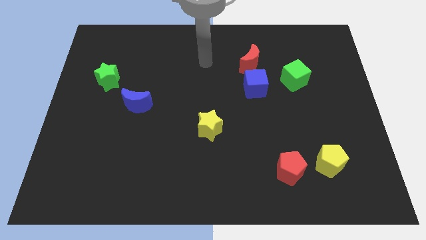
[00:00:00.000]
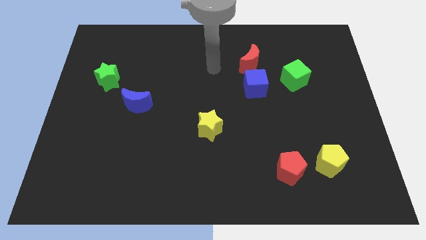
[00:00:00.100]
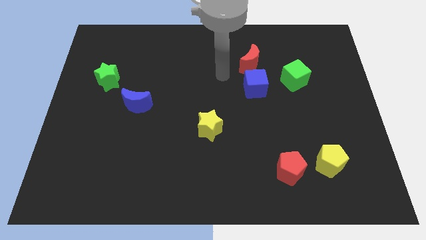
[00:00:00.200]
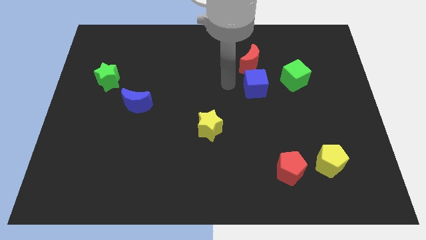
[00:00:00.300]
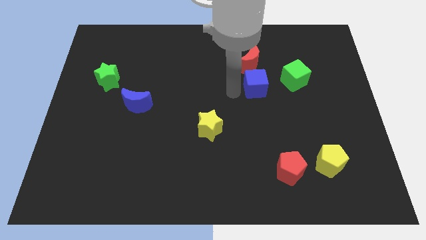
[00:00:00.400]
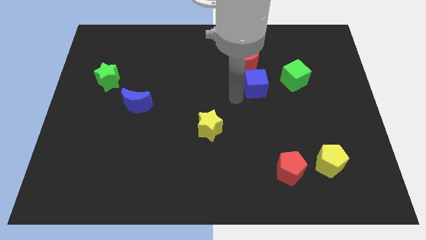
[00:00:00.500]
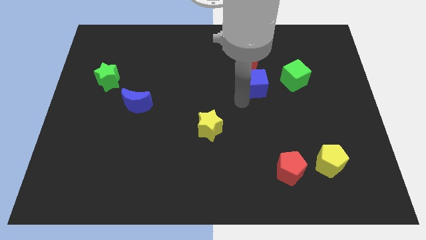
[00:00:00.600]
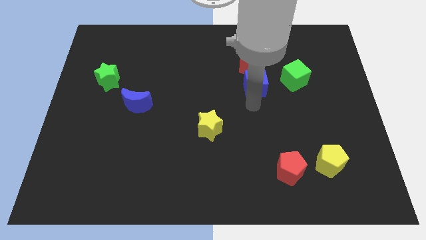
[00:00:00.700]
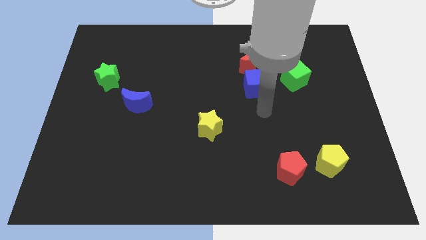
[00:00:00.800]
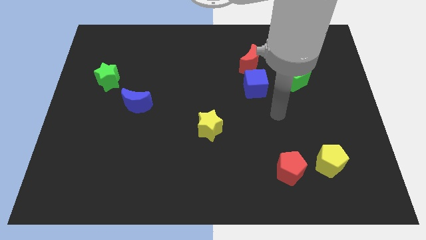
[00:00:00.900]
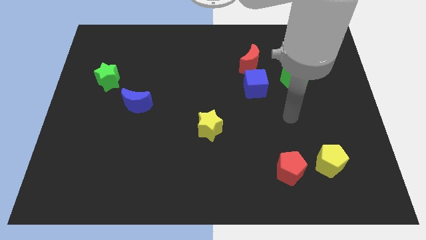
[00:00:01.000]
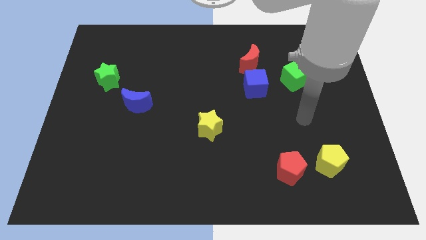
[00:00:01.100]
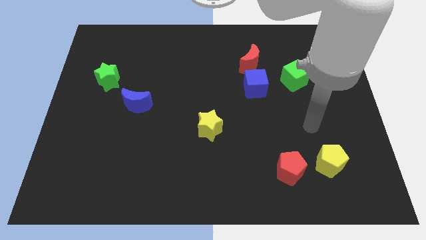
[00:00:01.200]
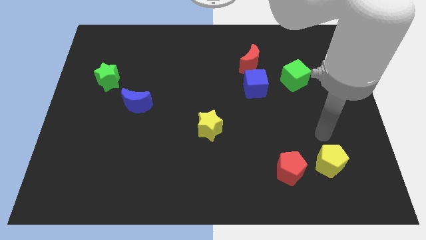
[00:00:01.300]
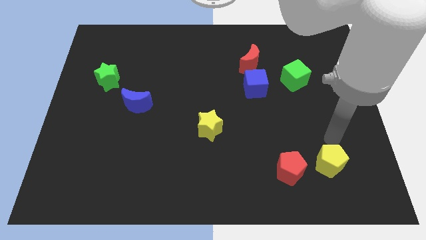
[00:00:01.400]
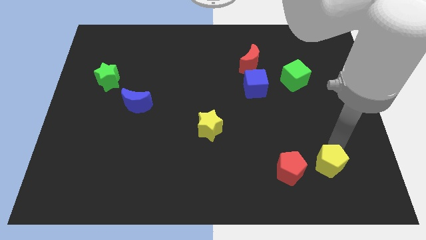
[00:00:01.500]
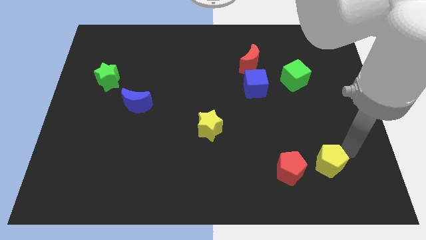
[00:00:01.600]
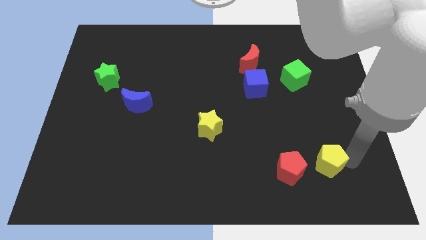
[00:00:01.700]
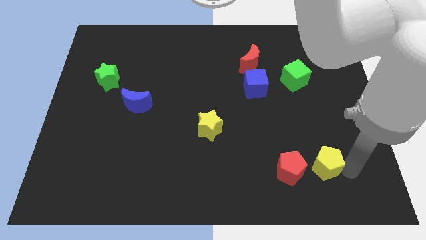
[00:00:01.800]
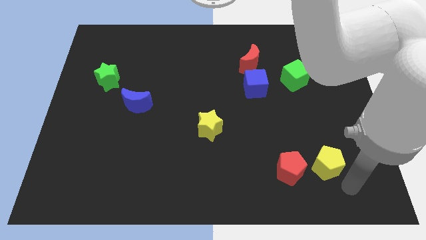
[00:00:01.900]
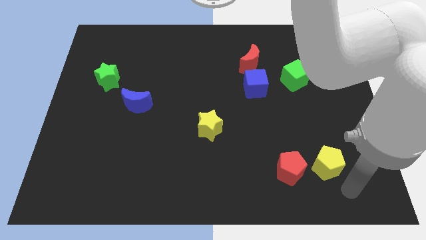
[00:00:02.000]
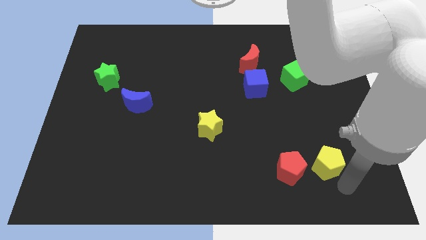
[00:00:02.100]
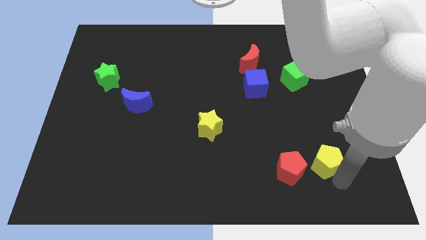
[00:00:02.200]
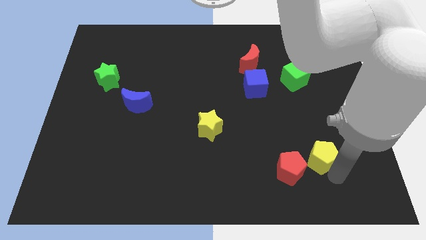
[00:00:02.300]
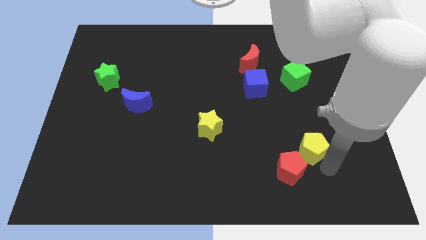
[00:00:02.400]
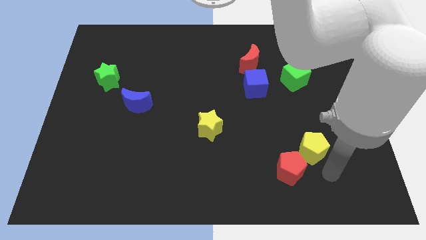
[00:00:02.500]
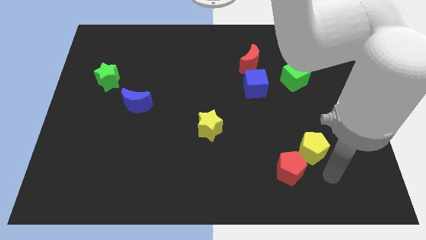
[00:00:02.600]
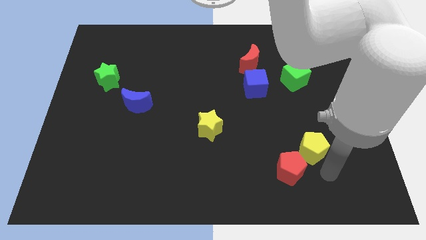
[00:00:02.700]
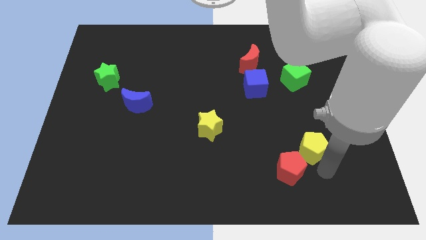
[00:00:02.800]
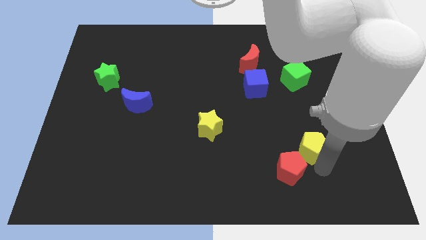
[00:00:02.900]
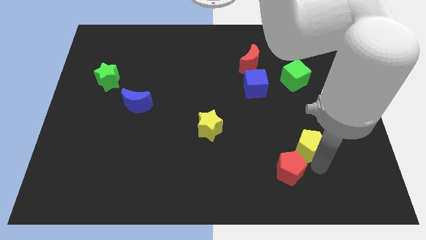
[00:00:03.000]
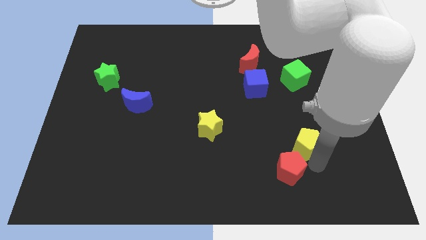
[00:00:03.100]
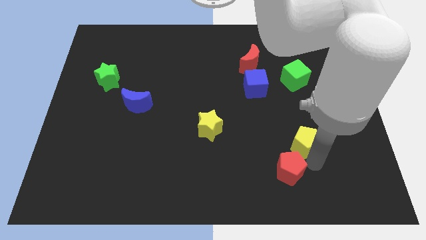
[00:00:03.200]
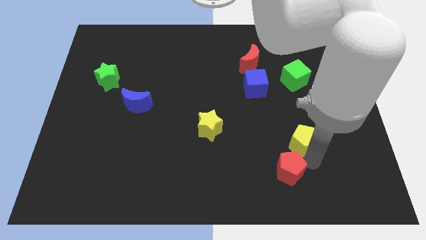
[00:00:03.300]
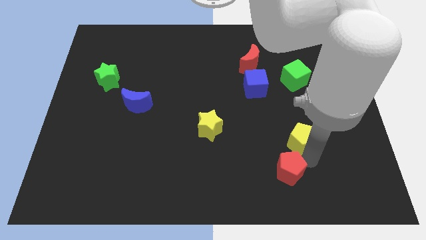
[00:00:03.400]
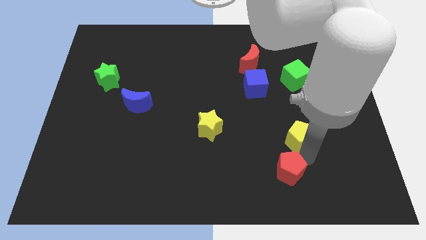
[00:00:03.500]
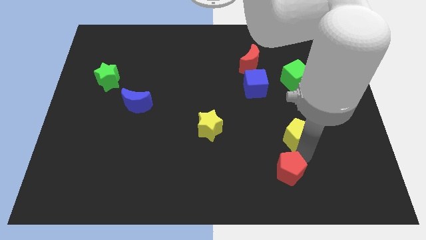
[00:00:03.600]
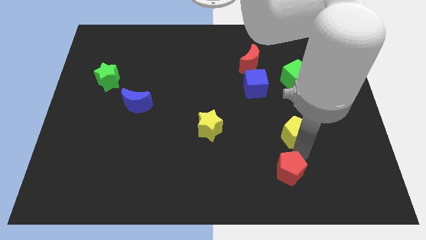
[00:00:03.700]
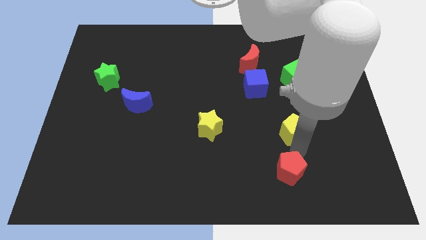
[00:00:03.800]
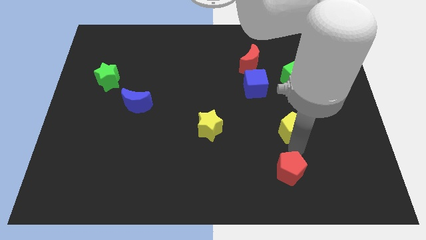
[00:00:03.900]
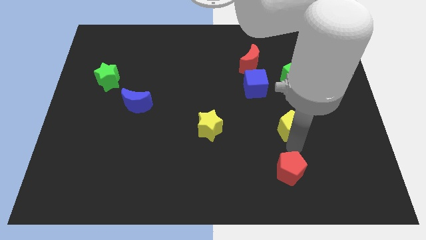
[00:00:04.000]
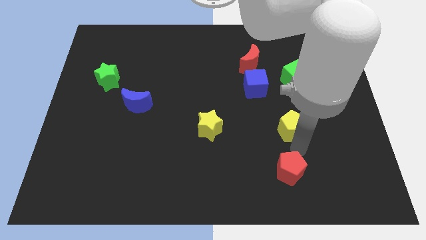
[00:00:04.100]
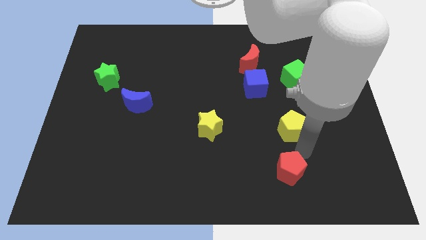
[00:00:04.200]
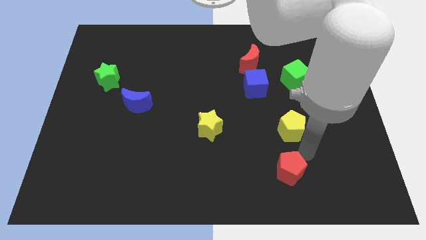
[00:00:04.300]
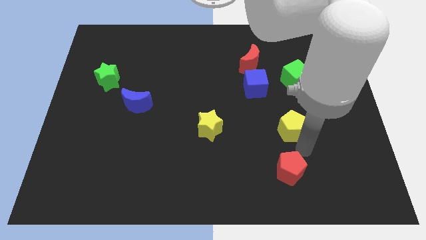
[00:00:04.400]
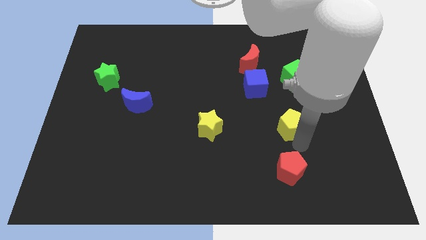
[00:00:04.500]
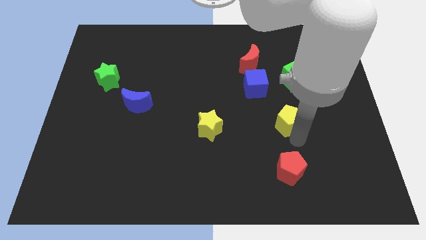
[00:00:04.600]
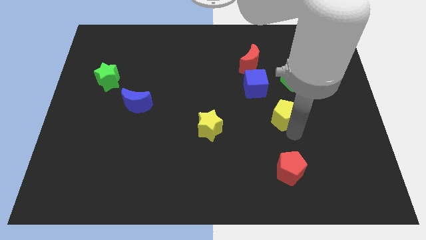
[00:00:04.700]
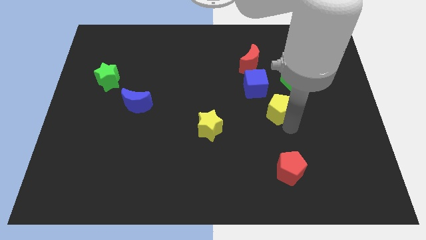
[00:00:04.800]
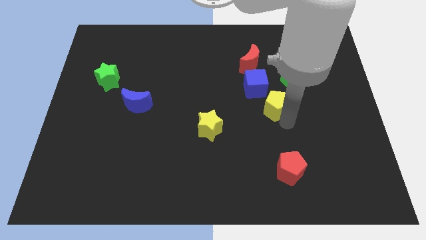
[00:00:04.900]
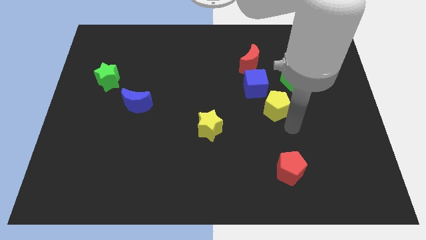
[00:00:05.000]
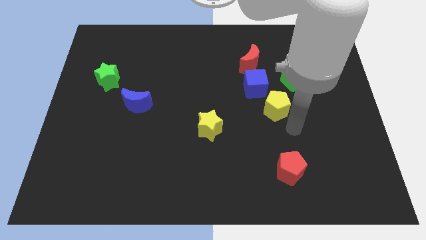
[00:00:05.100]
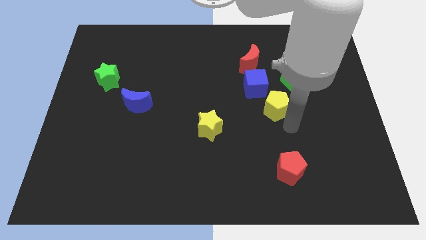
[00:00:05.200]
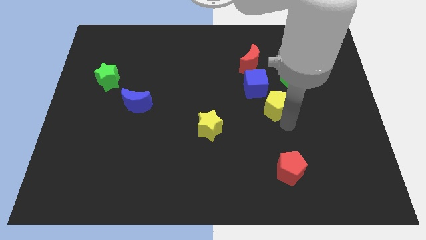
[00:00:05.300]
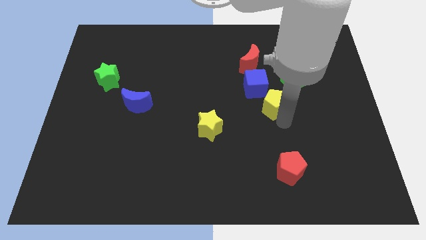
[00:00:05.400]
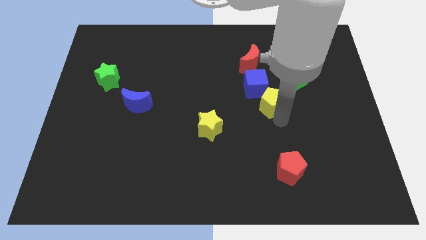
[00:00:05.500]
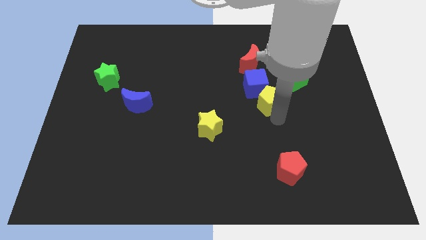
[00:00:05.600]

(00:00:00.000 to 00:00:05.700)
move the yellow pentagon to the blue cube

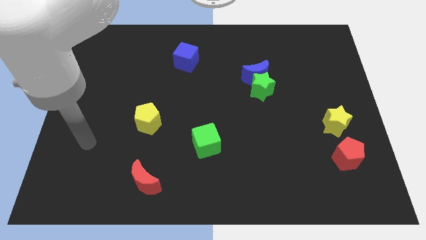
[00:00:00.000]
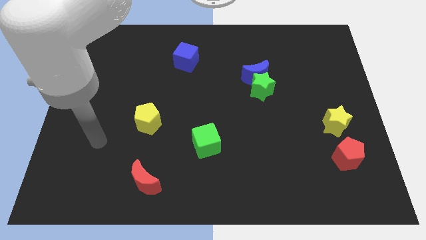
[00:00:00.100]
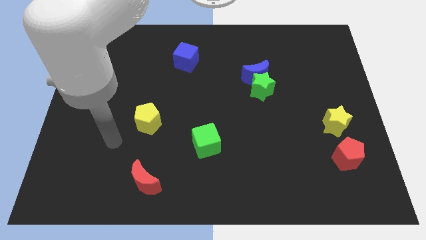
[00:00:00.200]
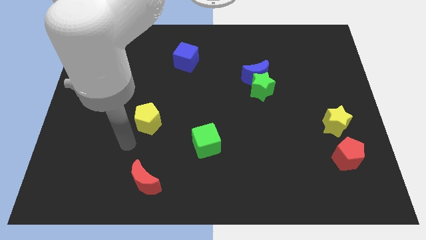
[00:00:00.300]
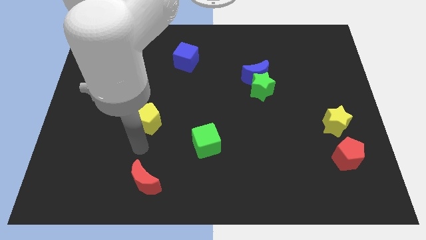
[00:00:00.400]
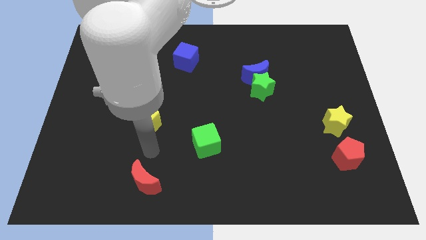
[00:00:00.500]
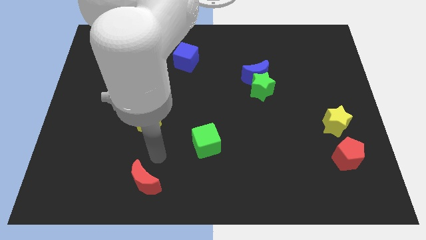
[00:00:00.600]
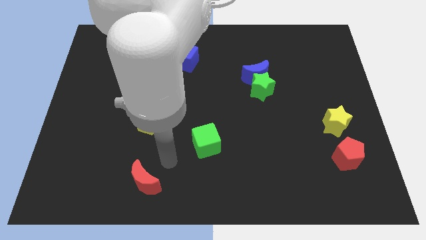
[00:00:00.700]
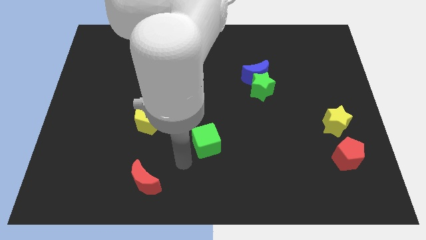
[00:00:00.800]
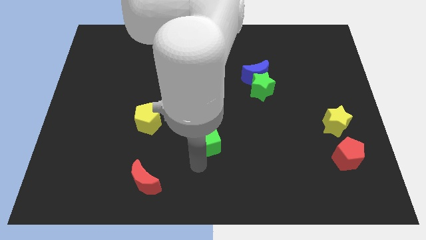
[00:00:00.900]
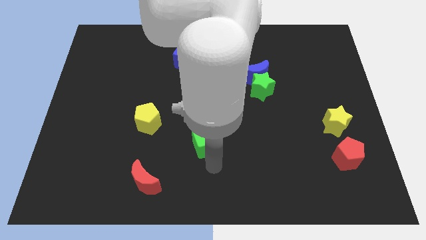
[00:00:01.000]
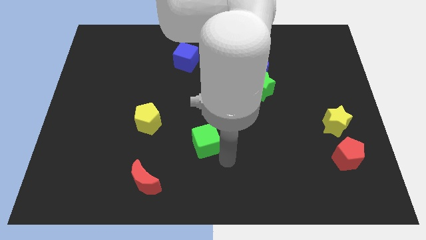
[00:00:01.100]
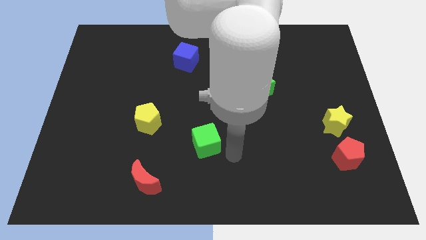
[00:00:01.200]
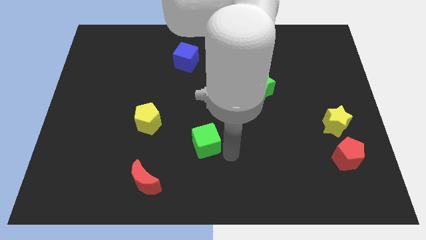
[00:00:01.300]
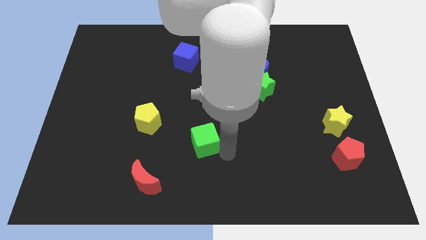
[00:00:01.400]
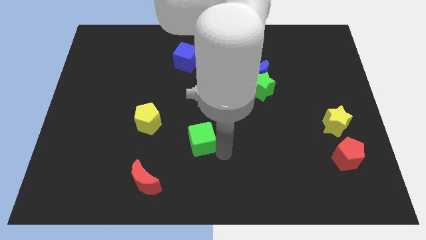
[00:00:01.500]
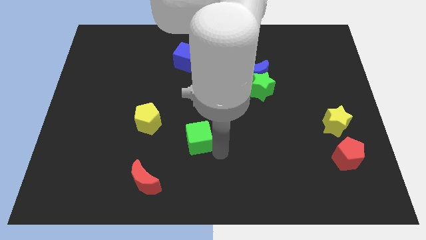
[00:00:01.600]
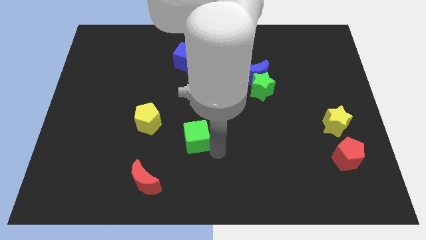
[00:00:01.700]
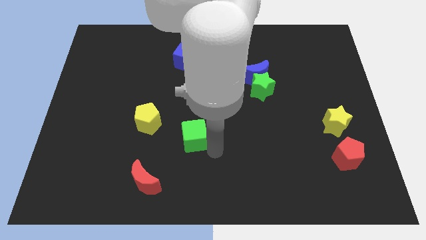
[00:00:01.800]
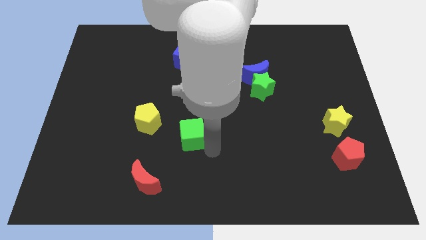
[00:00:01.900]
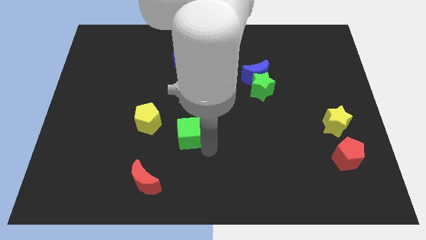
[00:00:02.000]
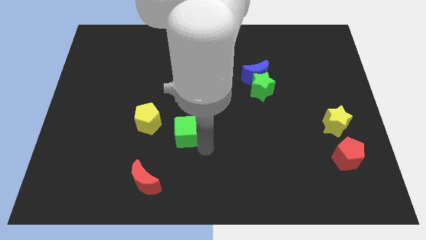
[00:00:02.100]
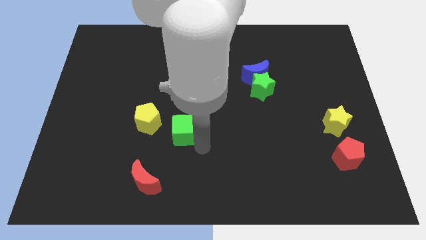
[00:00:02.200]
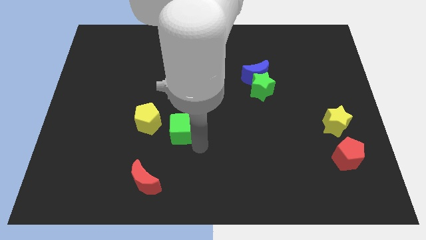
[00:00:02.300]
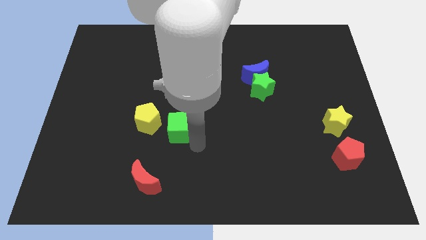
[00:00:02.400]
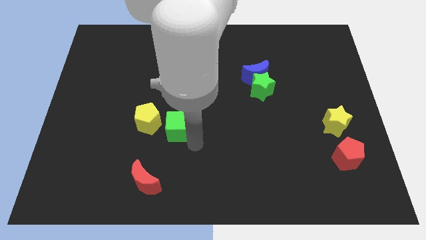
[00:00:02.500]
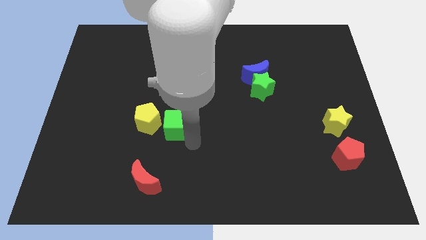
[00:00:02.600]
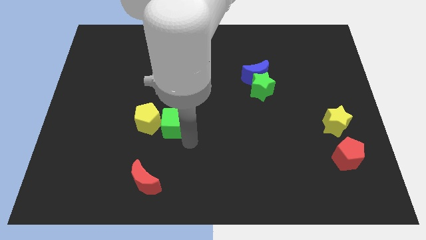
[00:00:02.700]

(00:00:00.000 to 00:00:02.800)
push the green cube towards the yellow pentagon
